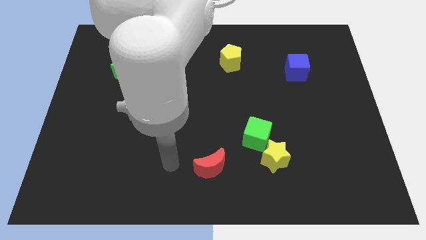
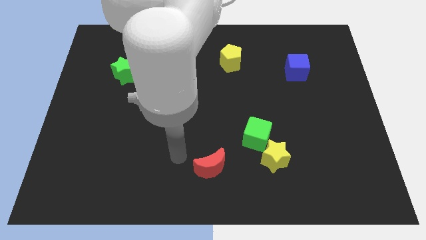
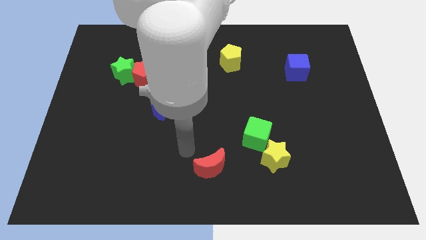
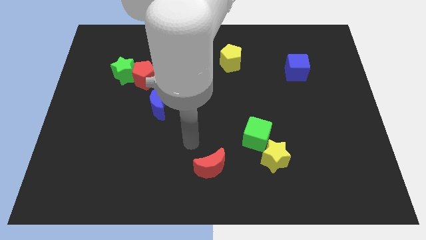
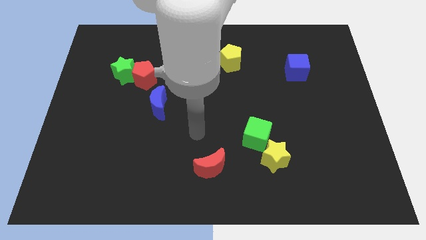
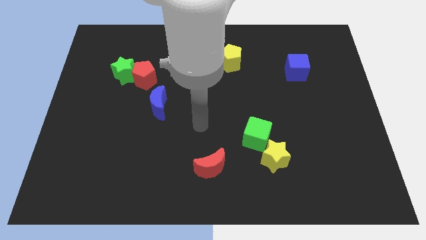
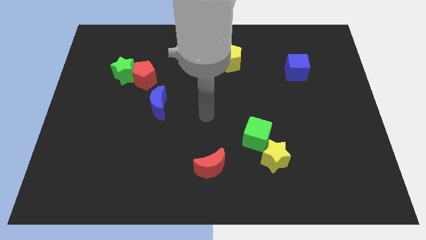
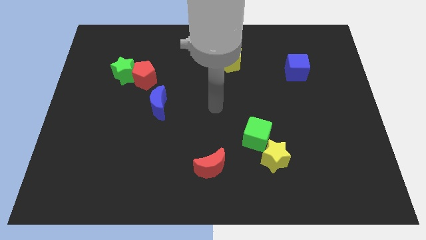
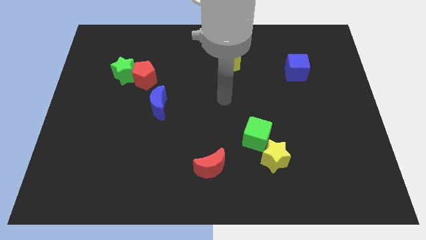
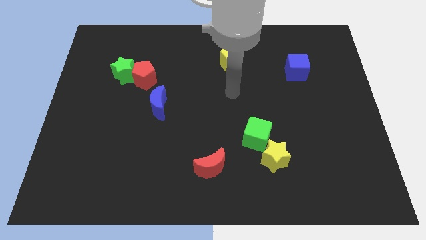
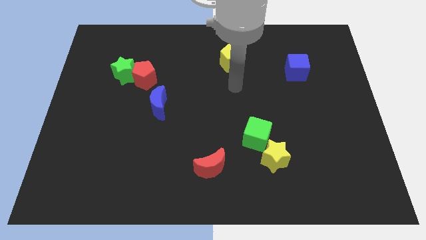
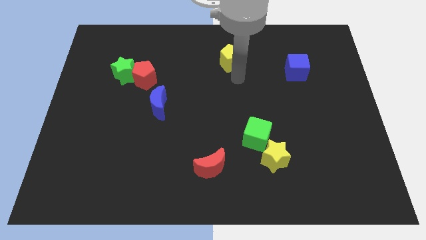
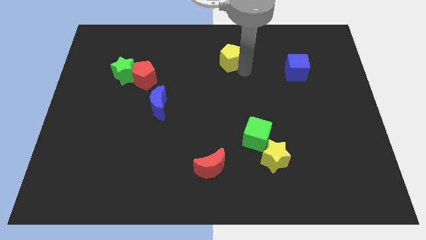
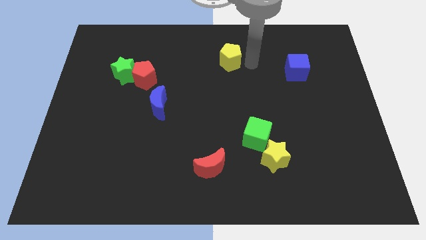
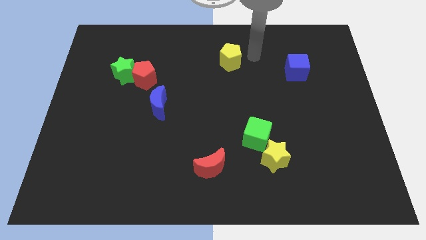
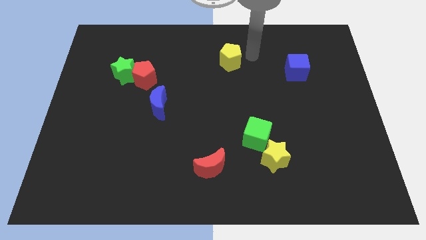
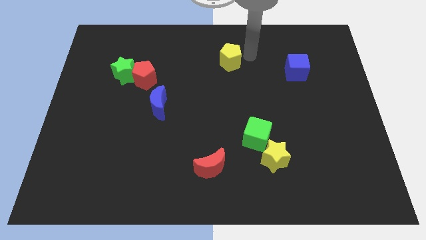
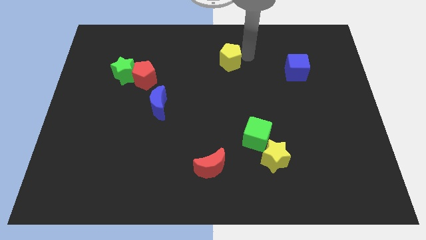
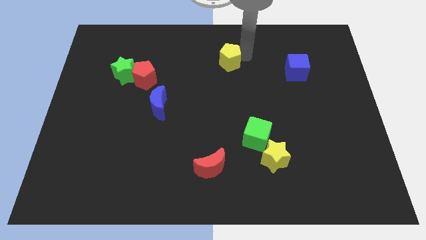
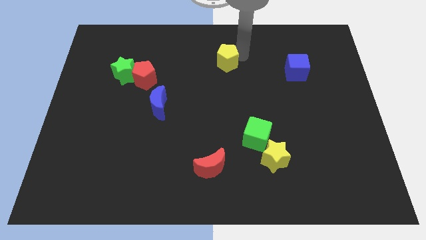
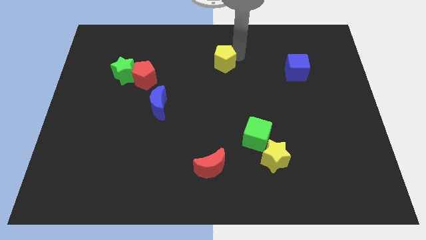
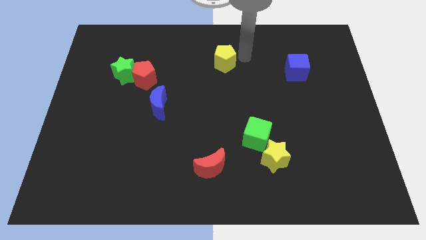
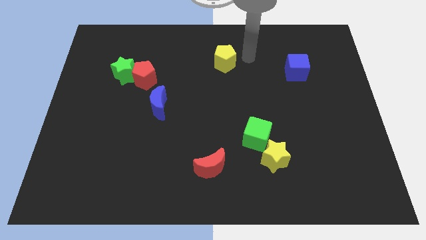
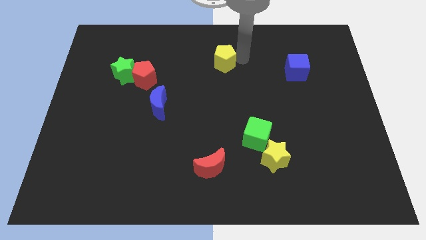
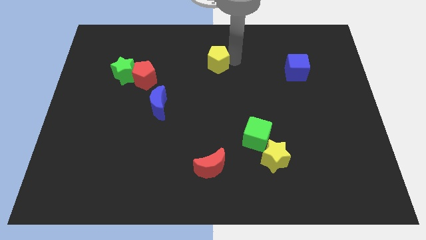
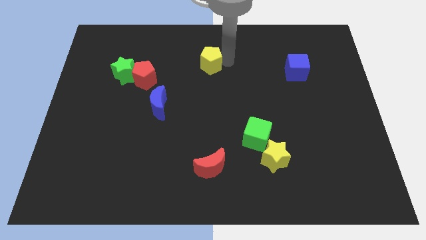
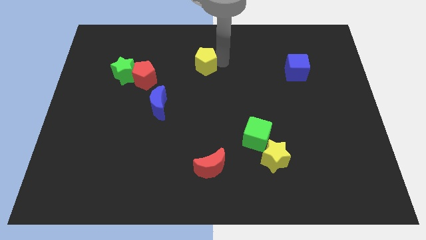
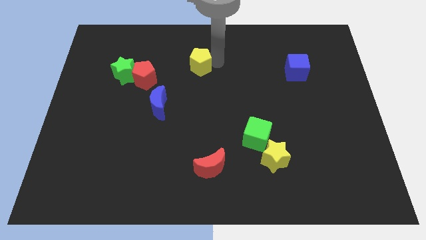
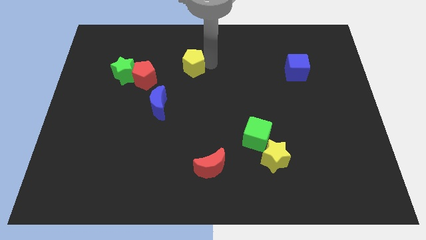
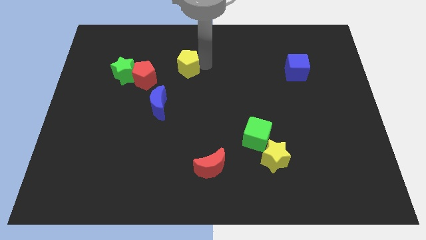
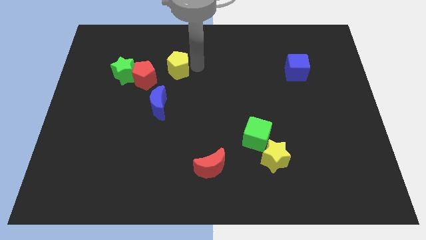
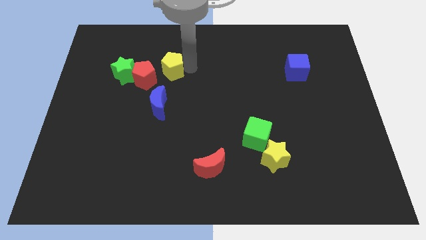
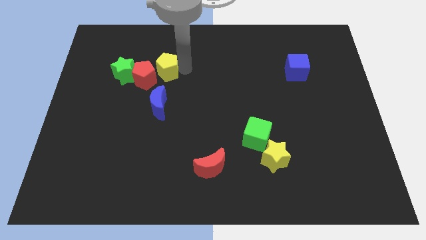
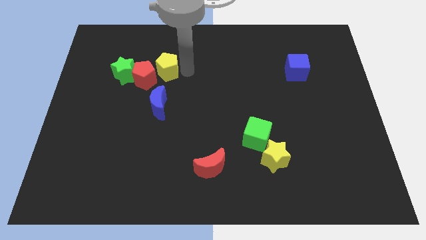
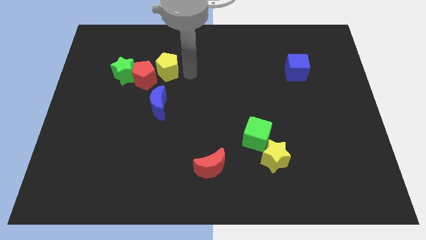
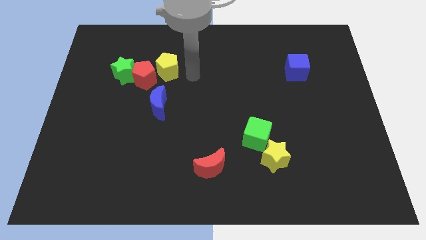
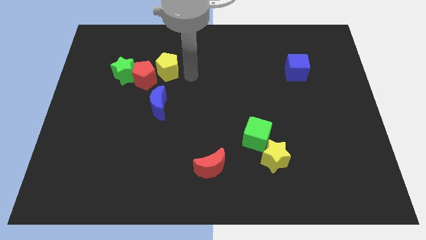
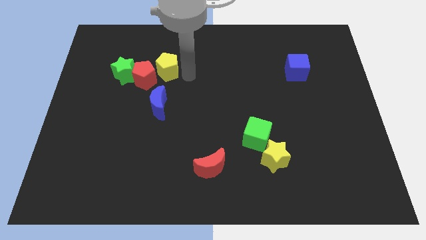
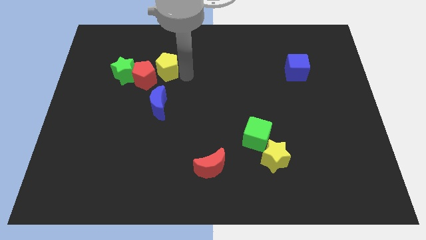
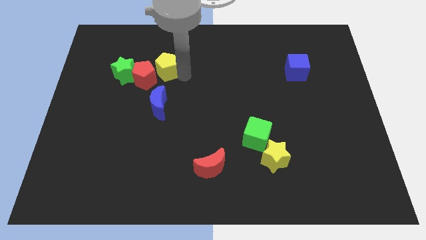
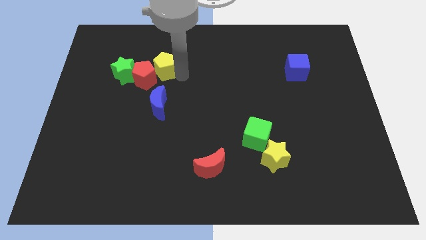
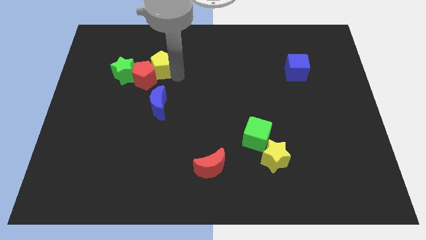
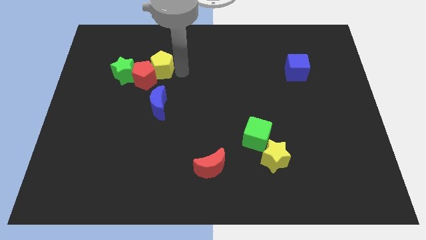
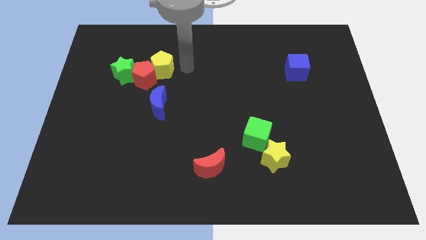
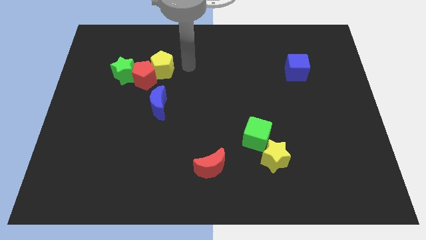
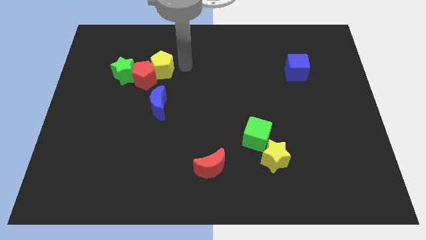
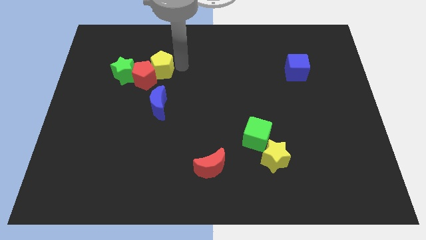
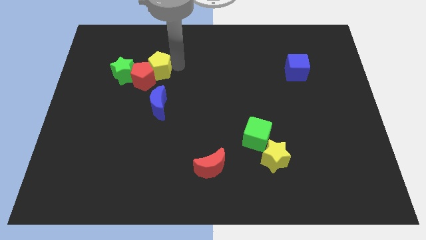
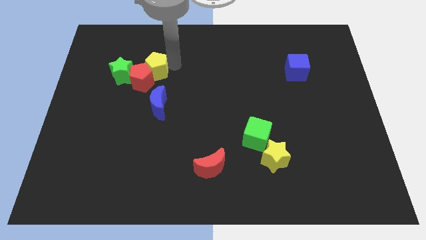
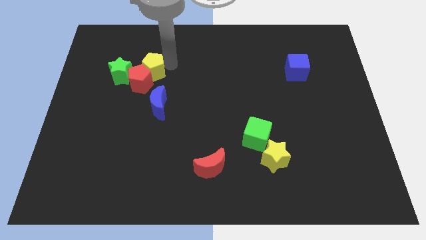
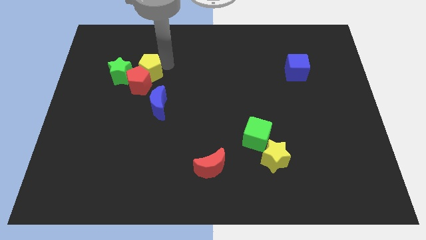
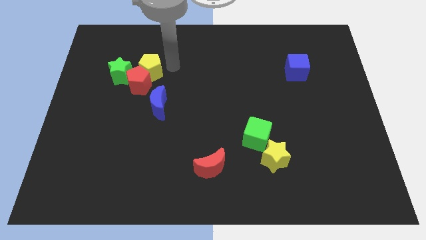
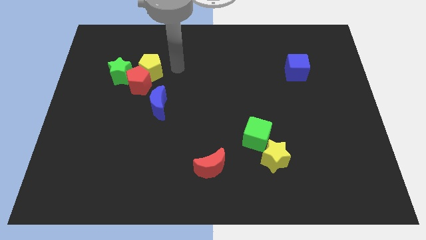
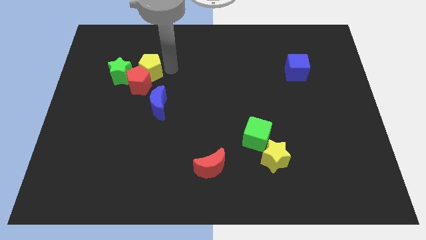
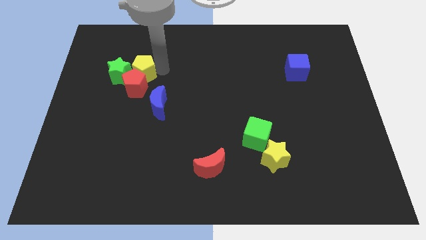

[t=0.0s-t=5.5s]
push the yellow pentagon to the green star

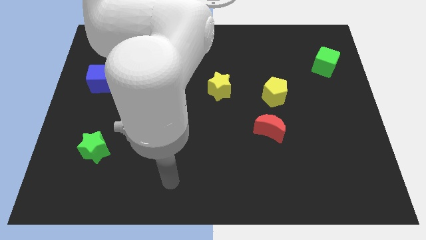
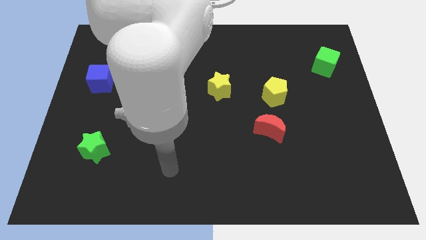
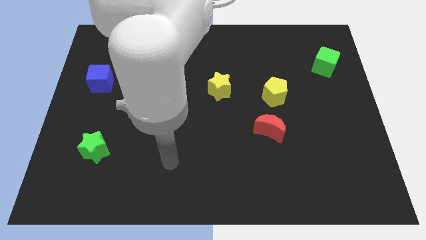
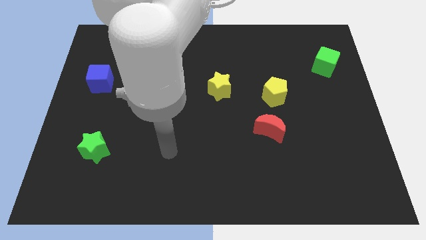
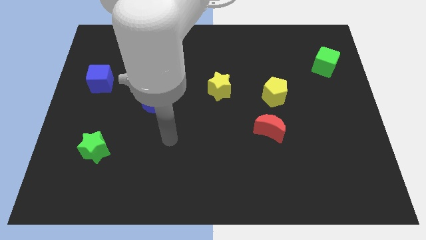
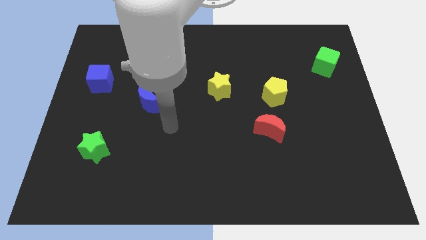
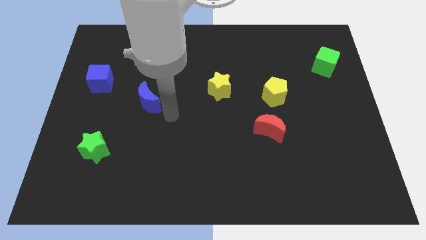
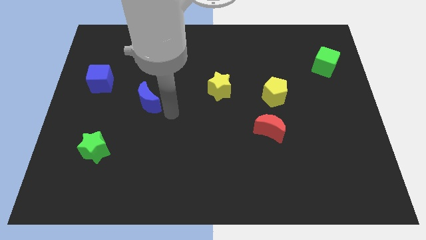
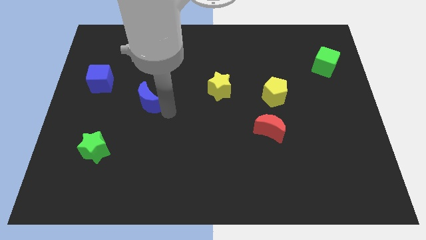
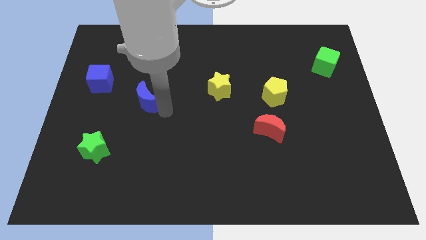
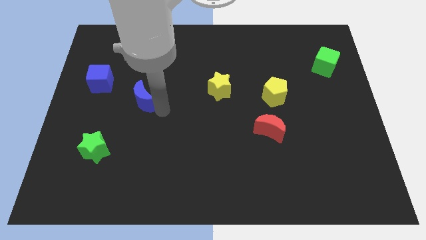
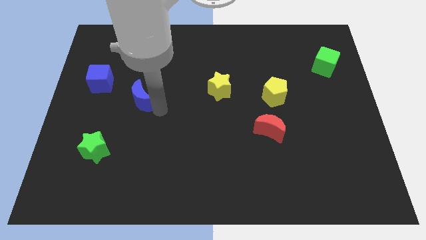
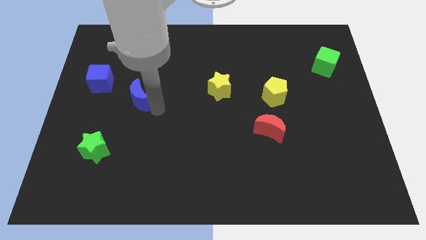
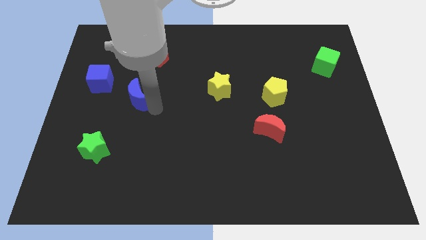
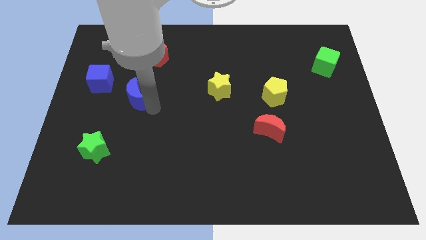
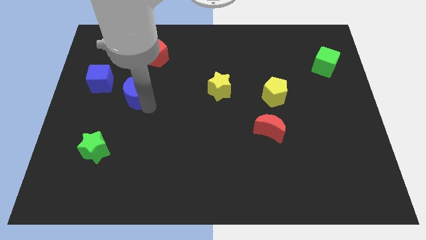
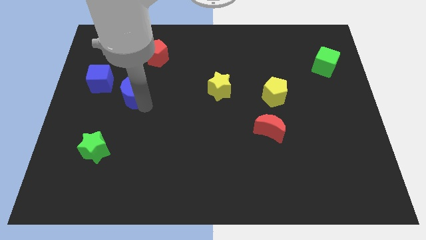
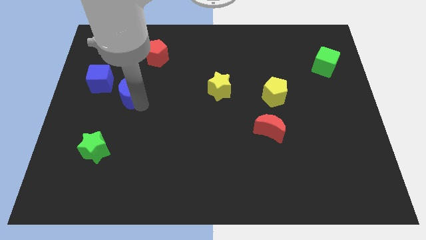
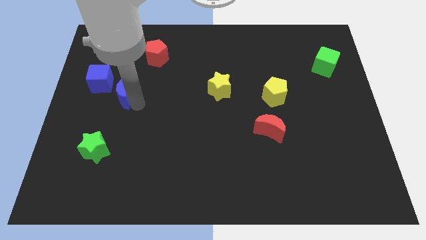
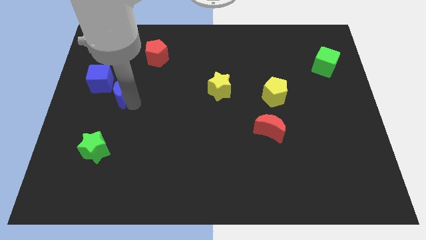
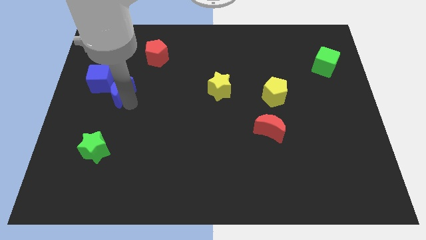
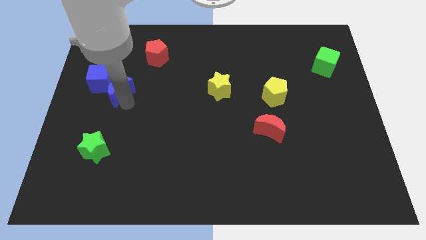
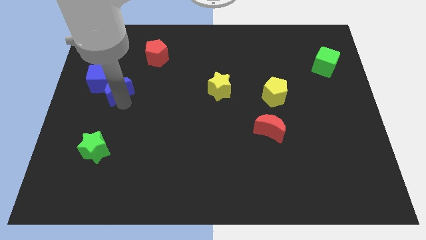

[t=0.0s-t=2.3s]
slide the blue moon towards the blue cube
